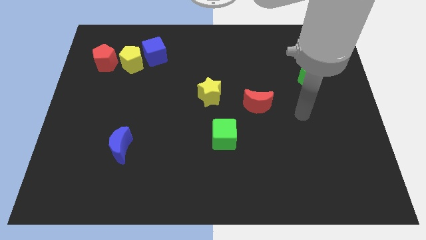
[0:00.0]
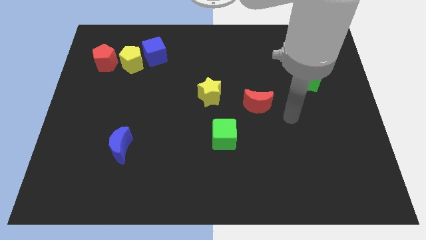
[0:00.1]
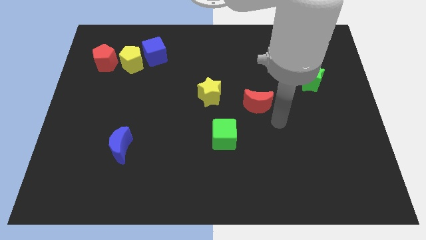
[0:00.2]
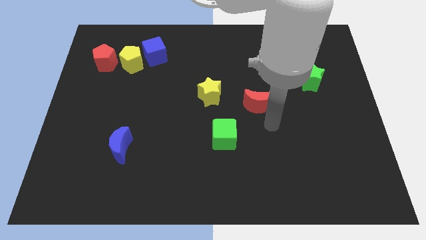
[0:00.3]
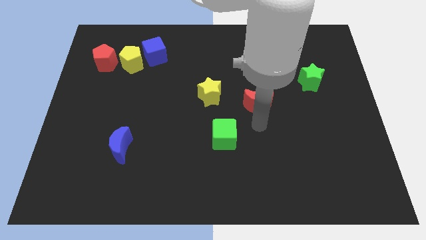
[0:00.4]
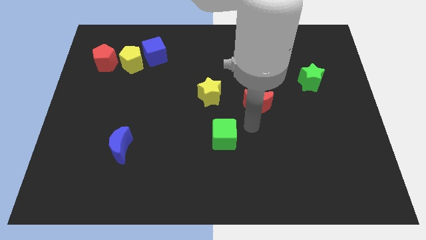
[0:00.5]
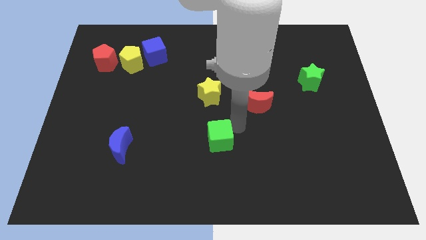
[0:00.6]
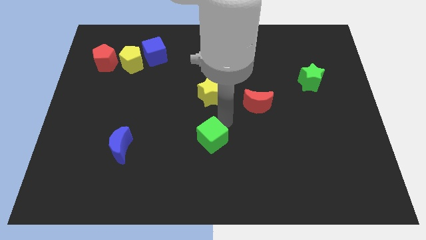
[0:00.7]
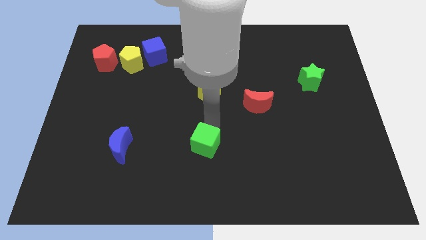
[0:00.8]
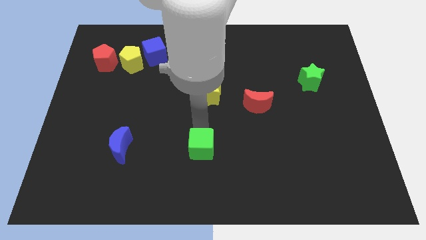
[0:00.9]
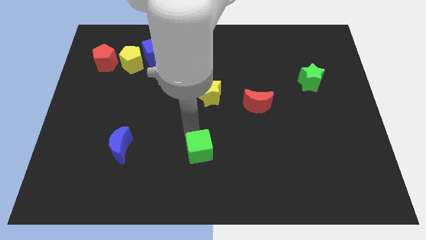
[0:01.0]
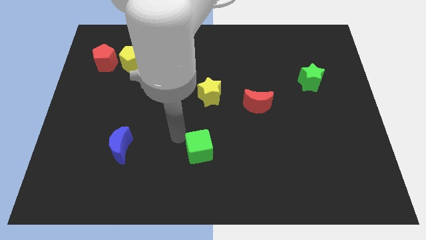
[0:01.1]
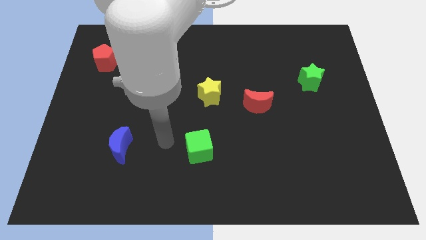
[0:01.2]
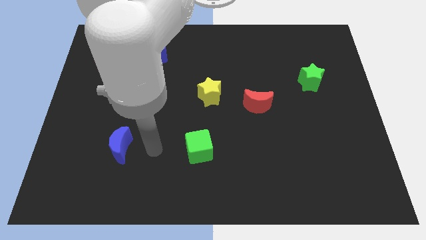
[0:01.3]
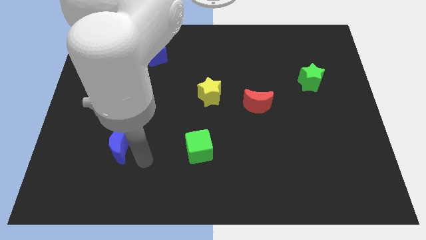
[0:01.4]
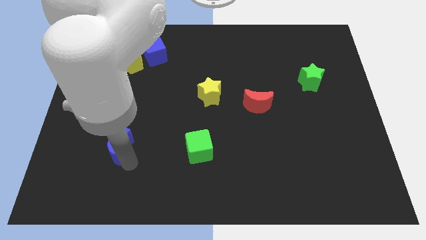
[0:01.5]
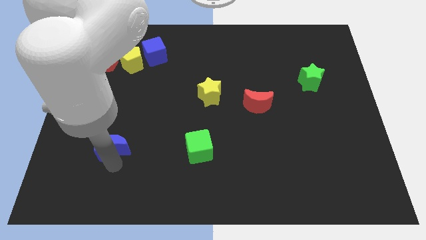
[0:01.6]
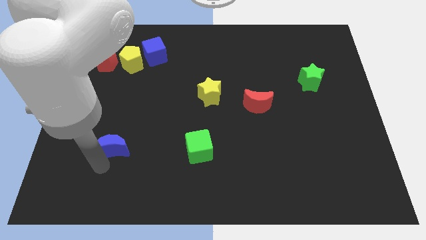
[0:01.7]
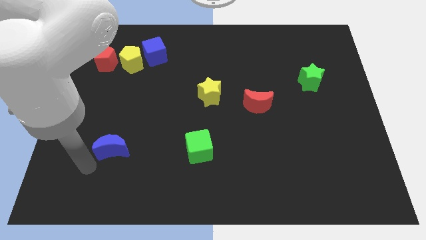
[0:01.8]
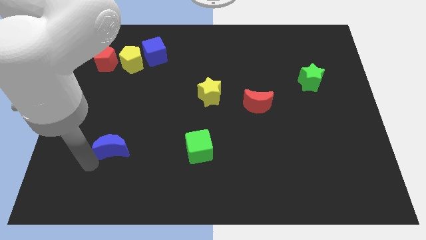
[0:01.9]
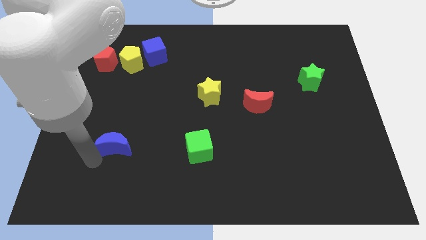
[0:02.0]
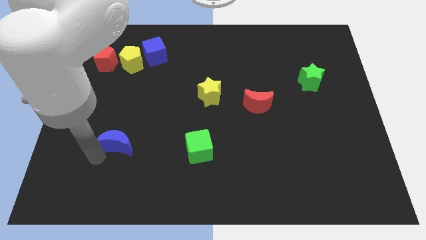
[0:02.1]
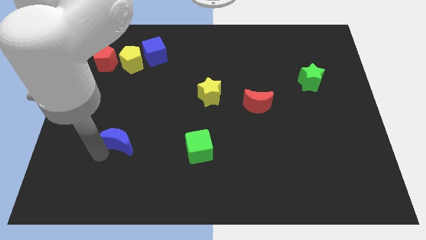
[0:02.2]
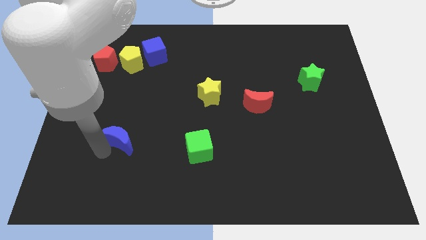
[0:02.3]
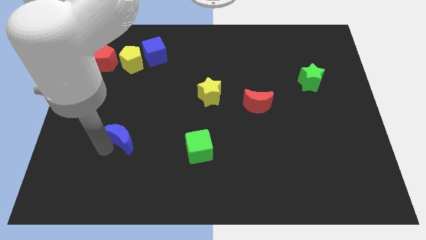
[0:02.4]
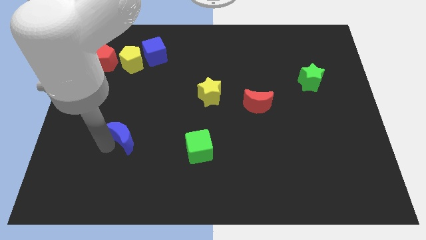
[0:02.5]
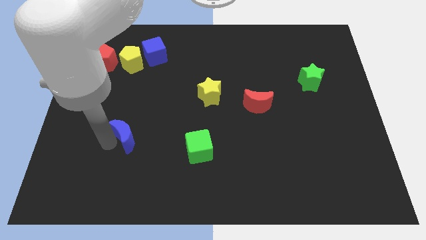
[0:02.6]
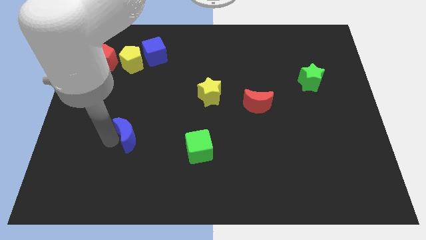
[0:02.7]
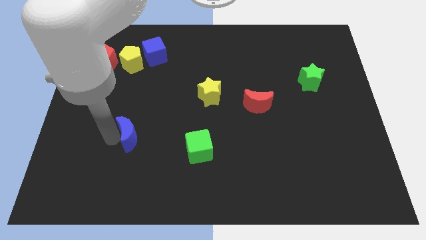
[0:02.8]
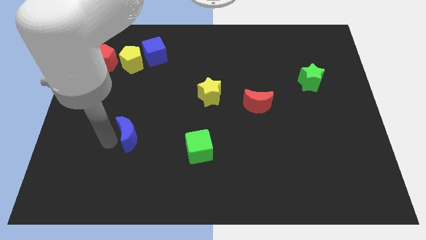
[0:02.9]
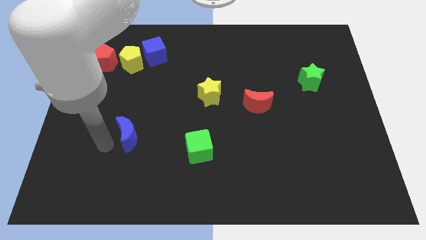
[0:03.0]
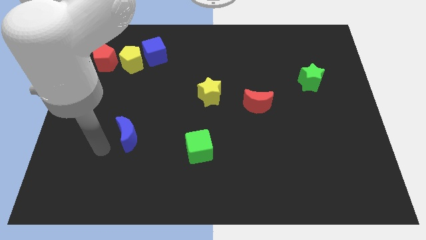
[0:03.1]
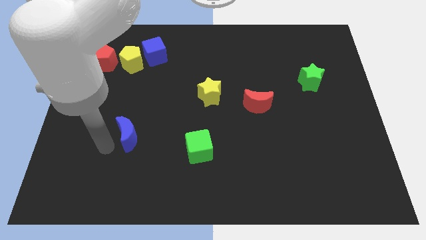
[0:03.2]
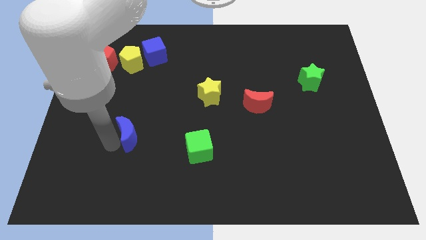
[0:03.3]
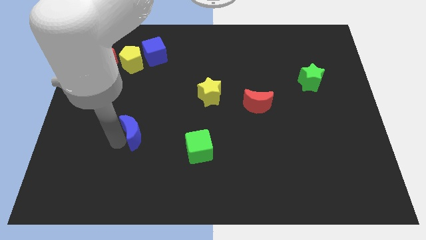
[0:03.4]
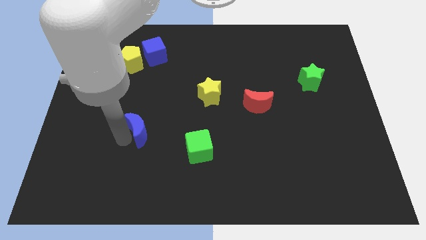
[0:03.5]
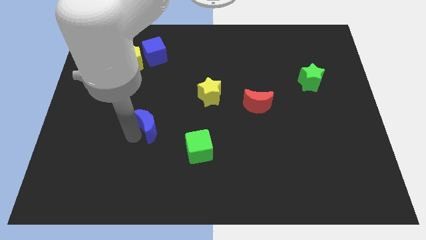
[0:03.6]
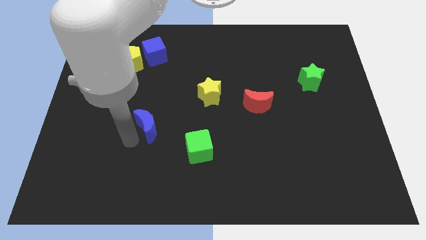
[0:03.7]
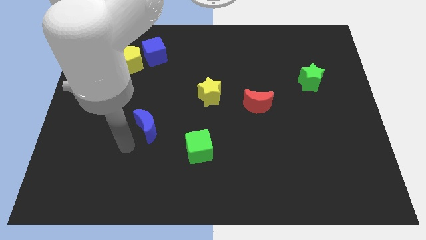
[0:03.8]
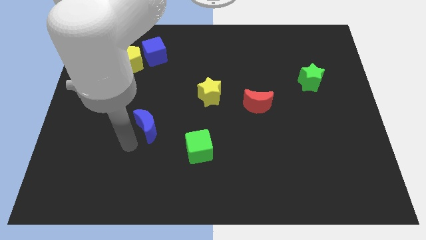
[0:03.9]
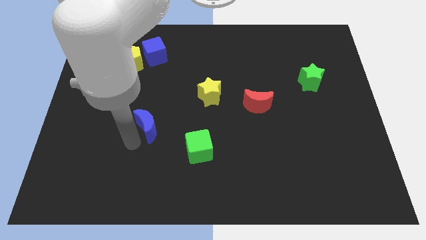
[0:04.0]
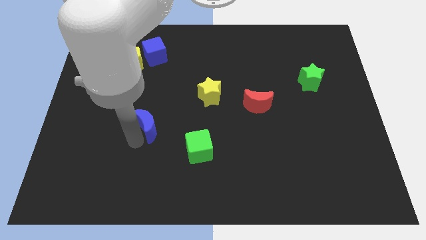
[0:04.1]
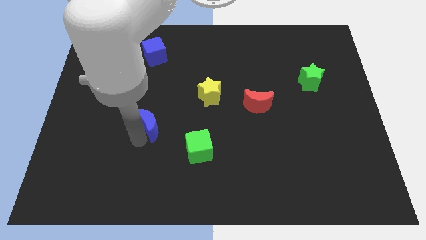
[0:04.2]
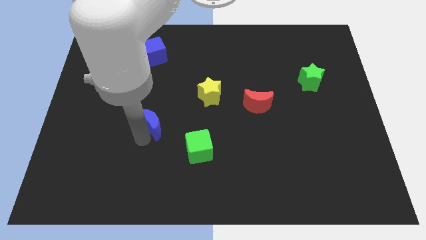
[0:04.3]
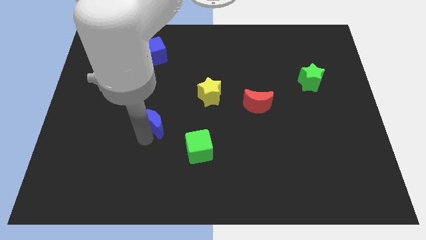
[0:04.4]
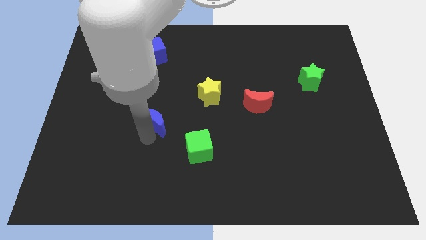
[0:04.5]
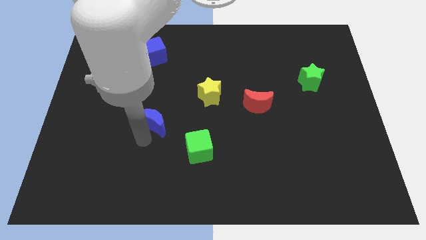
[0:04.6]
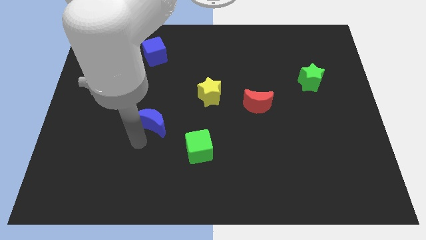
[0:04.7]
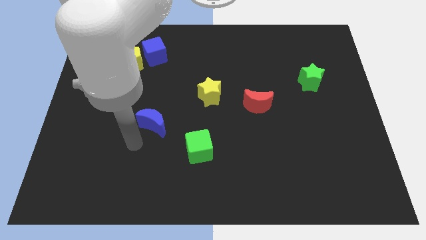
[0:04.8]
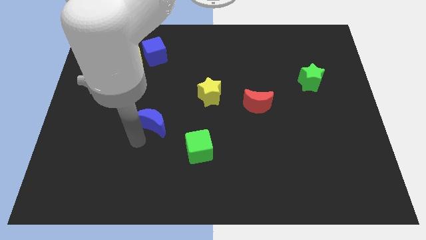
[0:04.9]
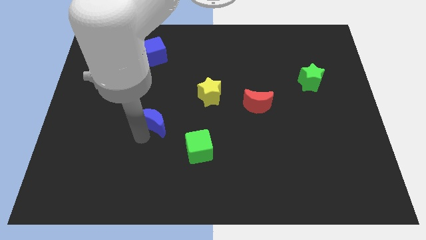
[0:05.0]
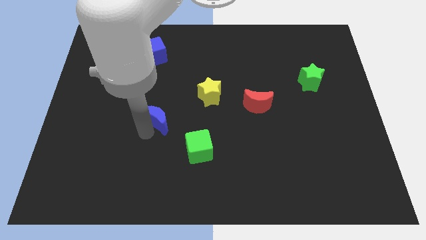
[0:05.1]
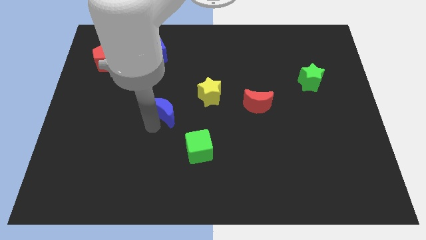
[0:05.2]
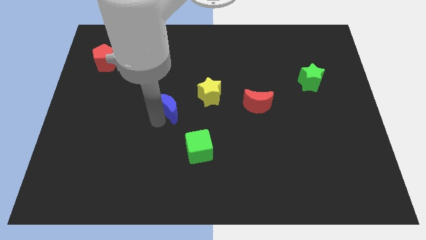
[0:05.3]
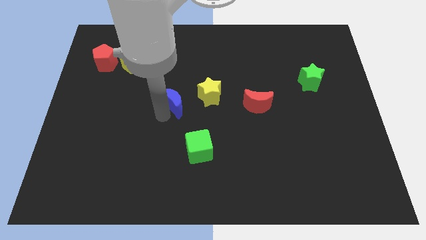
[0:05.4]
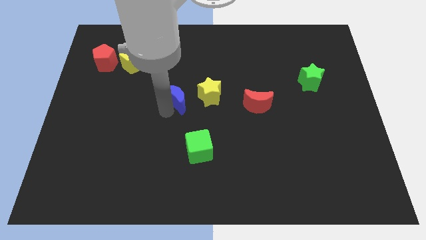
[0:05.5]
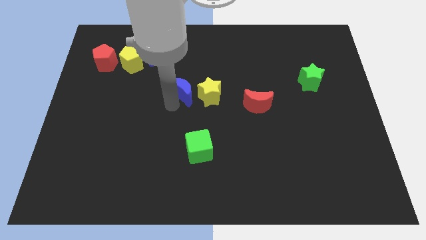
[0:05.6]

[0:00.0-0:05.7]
push the blue moon up and right

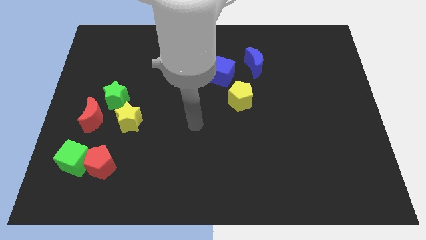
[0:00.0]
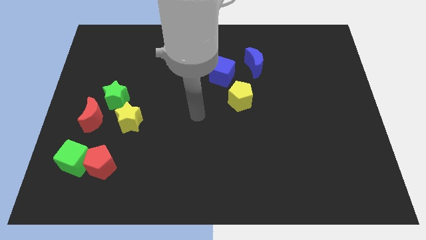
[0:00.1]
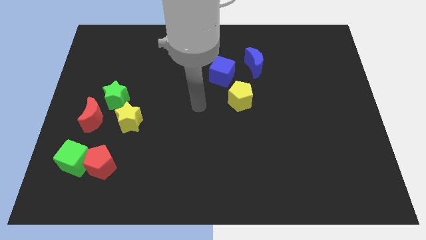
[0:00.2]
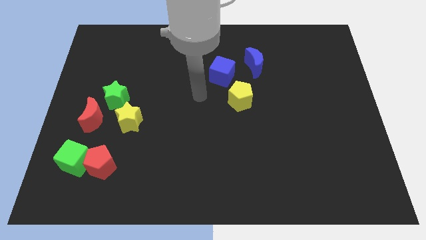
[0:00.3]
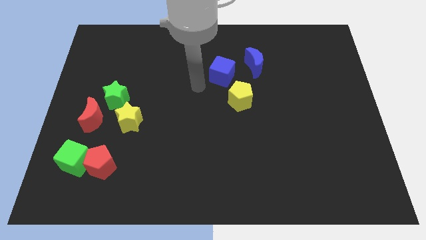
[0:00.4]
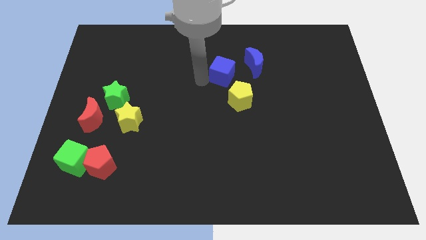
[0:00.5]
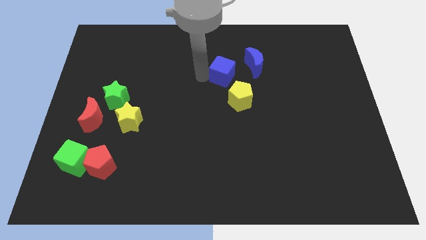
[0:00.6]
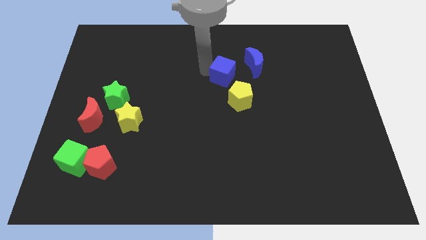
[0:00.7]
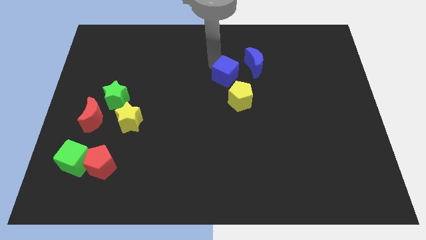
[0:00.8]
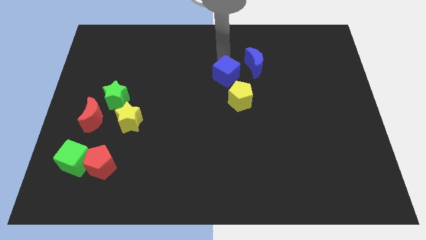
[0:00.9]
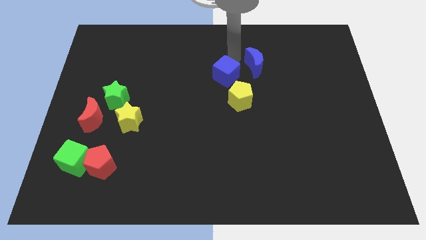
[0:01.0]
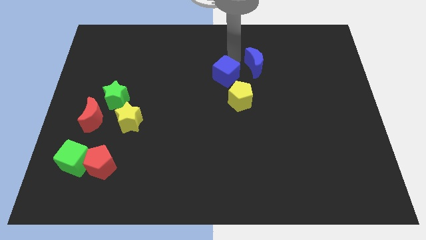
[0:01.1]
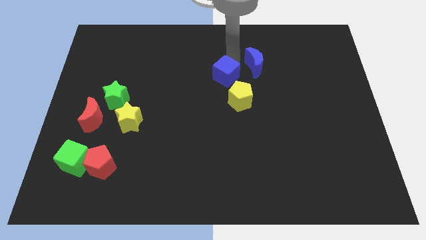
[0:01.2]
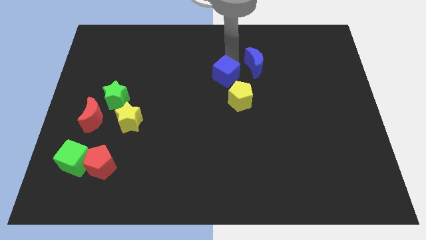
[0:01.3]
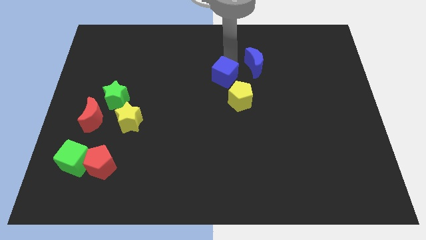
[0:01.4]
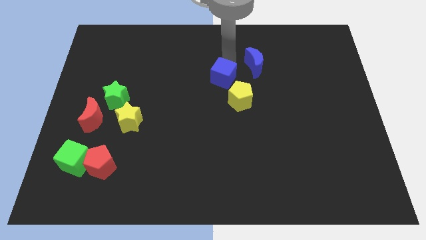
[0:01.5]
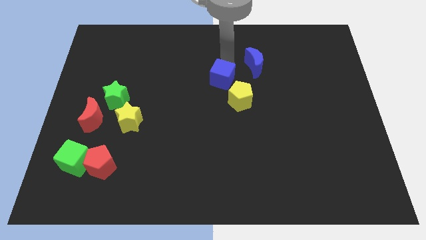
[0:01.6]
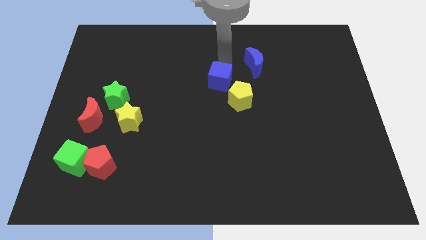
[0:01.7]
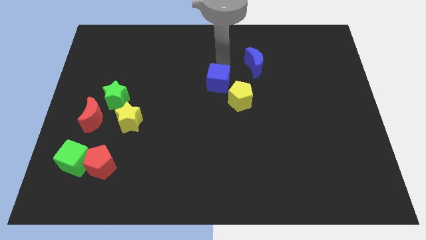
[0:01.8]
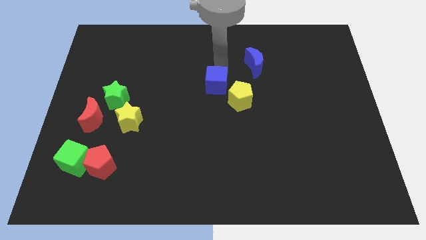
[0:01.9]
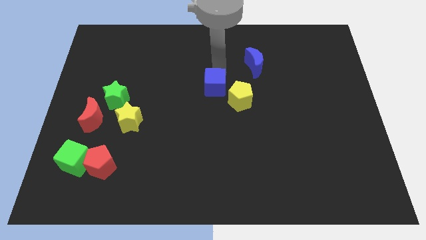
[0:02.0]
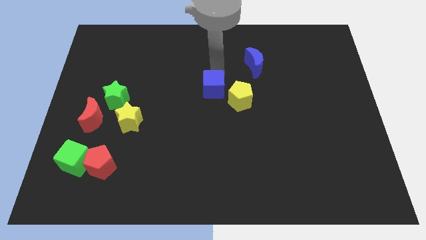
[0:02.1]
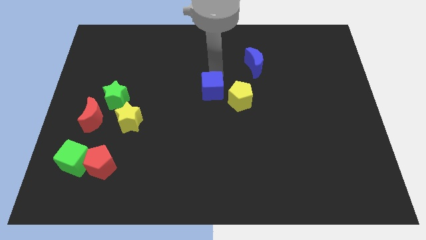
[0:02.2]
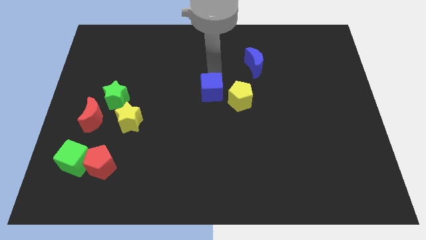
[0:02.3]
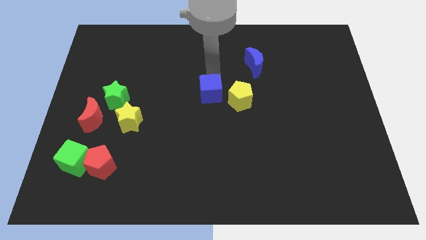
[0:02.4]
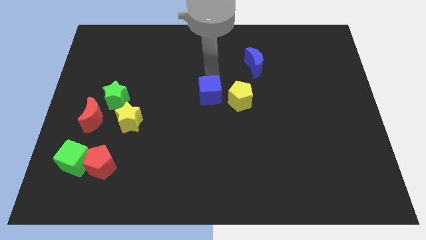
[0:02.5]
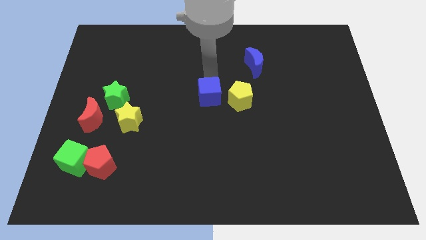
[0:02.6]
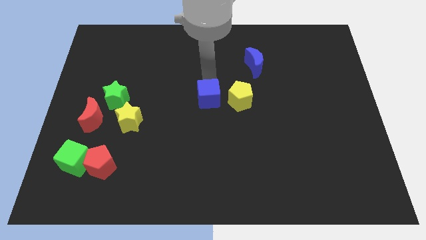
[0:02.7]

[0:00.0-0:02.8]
move the blue cube downwards somewhat
